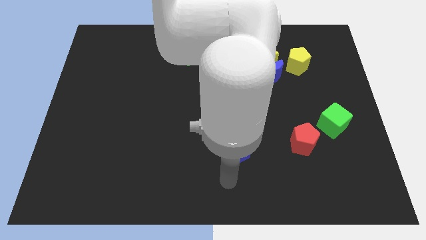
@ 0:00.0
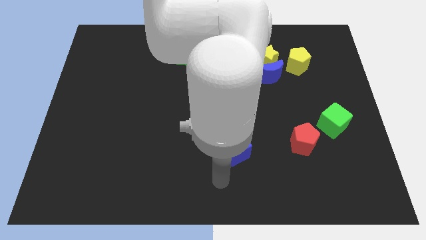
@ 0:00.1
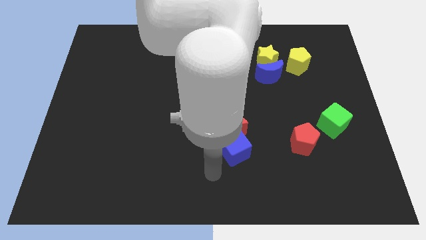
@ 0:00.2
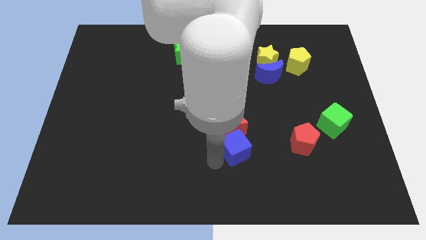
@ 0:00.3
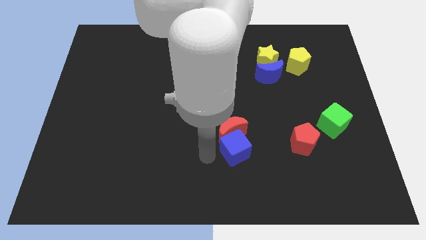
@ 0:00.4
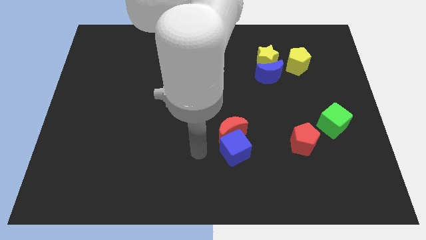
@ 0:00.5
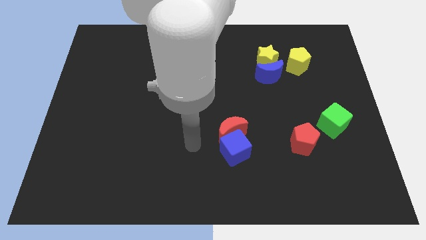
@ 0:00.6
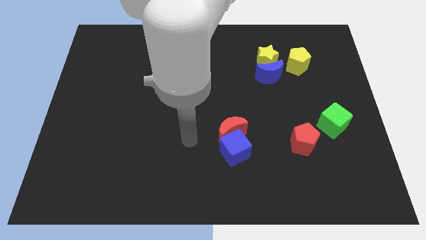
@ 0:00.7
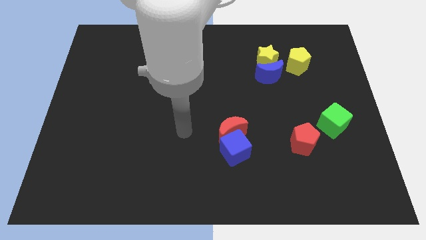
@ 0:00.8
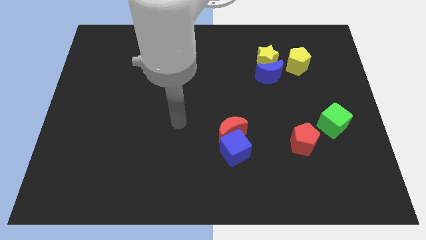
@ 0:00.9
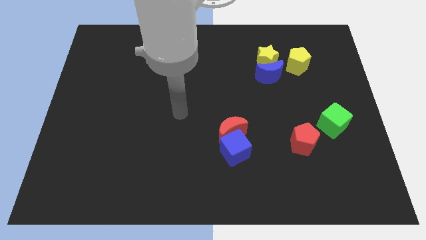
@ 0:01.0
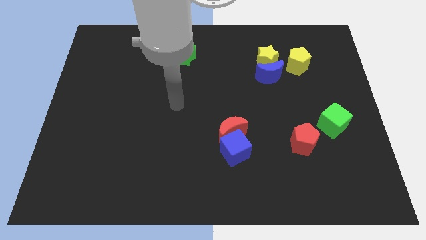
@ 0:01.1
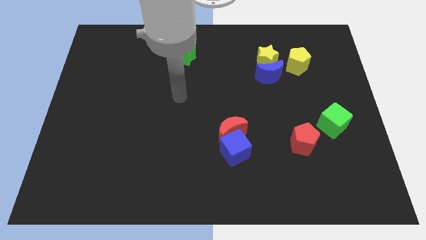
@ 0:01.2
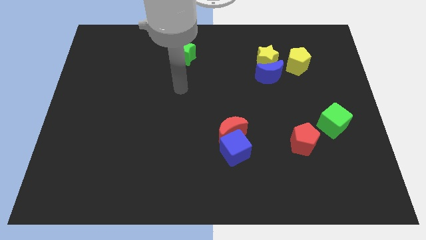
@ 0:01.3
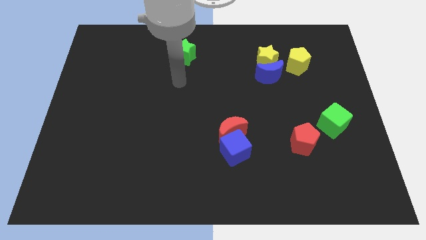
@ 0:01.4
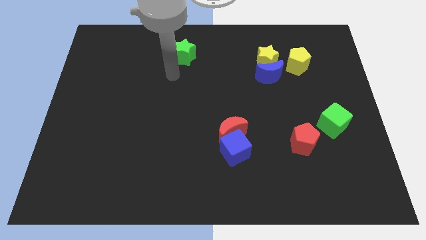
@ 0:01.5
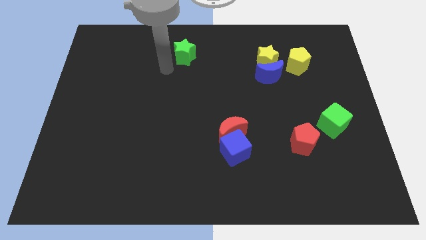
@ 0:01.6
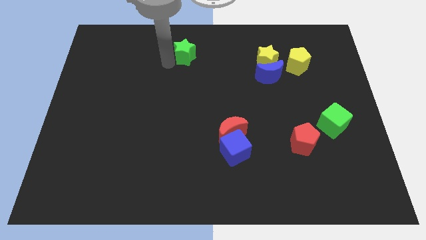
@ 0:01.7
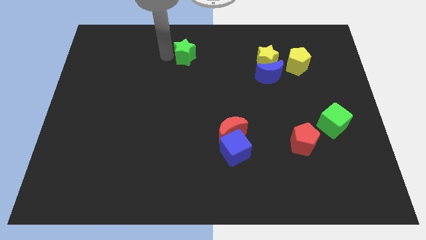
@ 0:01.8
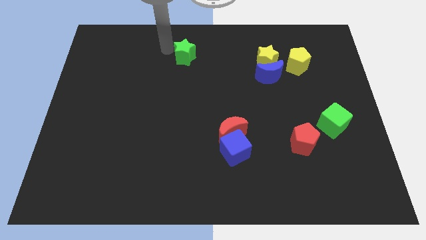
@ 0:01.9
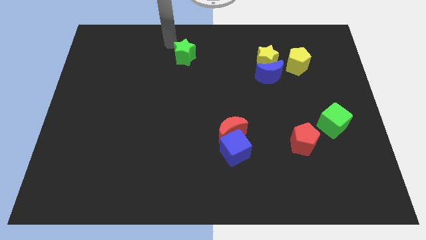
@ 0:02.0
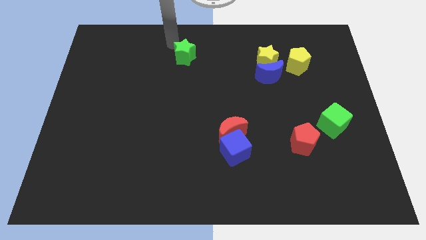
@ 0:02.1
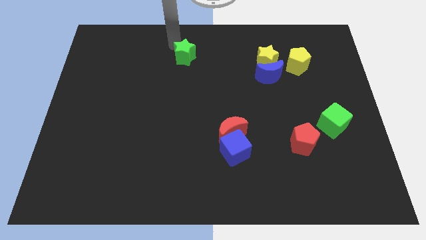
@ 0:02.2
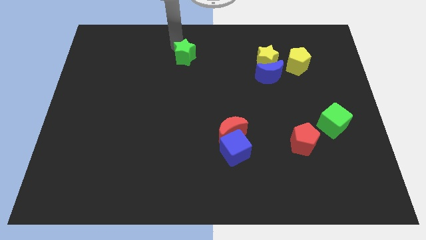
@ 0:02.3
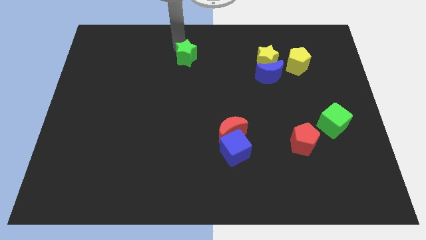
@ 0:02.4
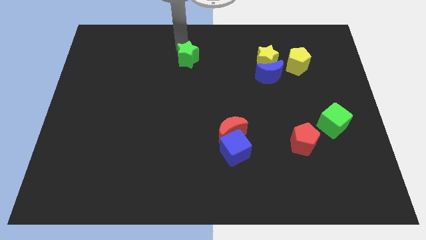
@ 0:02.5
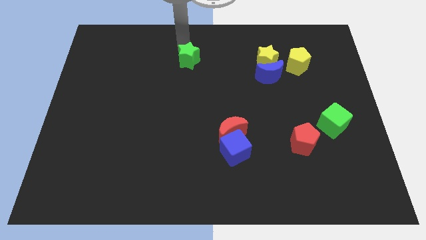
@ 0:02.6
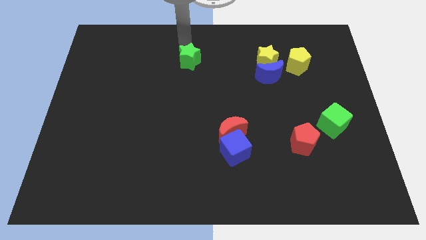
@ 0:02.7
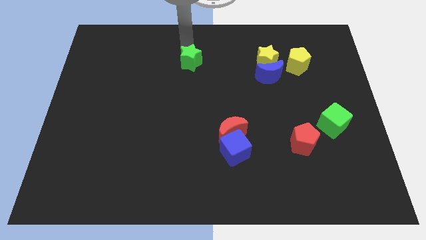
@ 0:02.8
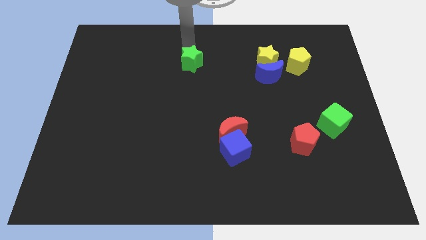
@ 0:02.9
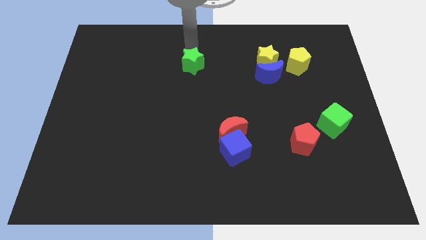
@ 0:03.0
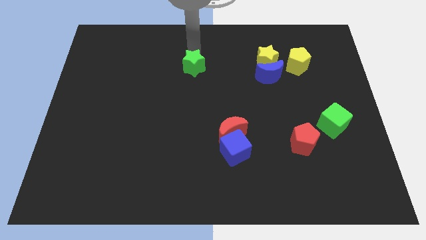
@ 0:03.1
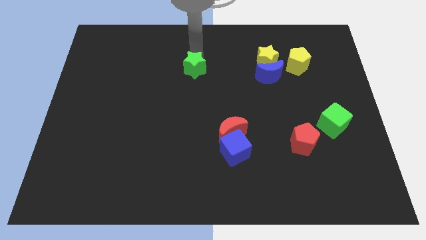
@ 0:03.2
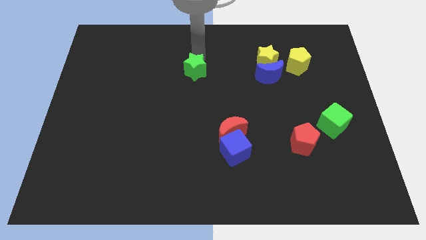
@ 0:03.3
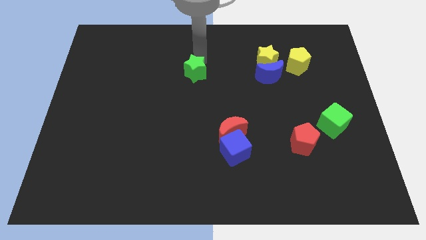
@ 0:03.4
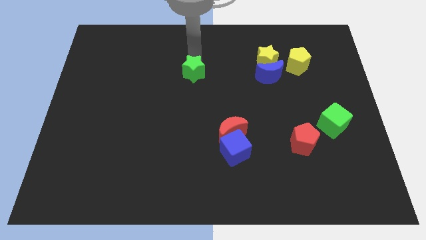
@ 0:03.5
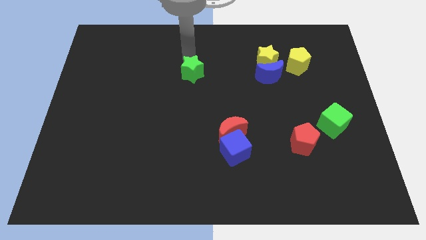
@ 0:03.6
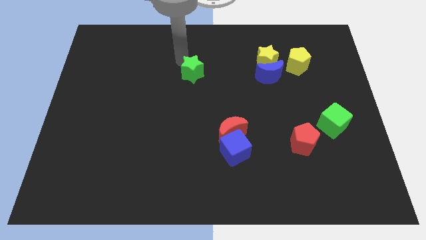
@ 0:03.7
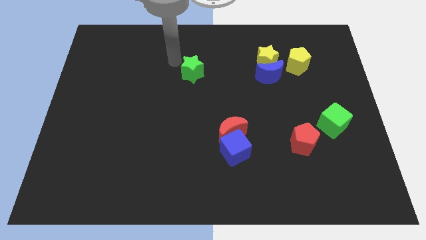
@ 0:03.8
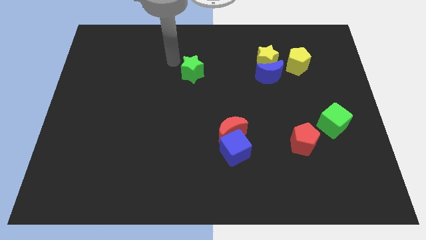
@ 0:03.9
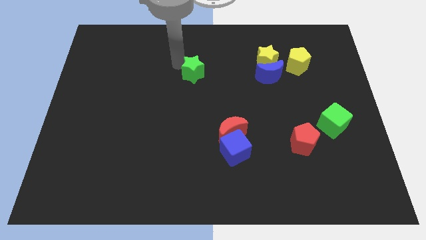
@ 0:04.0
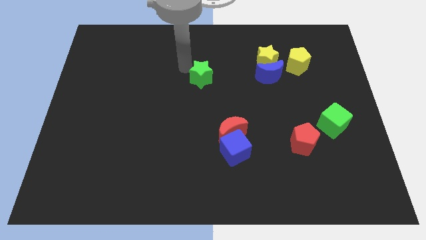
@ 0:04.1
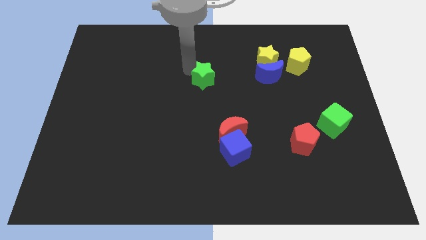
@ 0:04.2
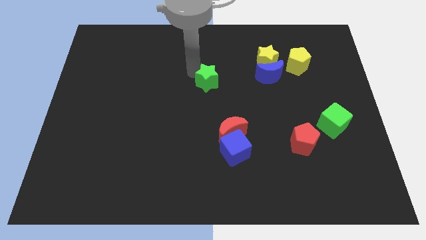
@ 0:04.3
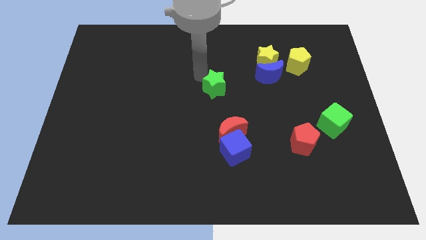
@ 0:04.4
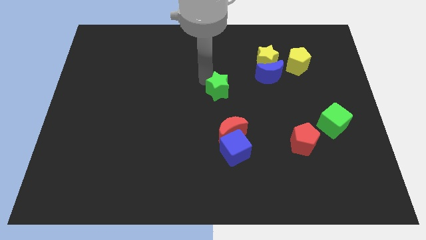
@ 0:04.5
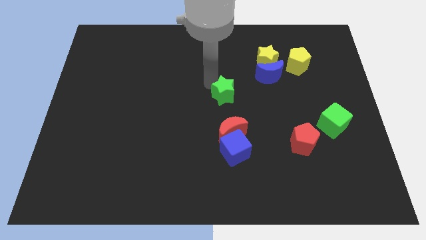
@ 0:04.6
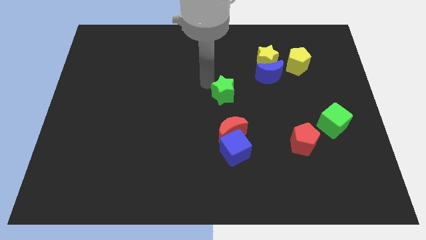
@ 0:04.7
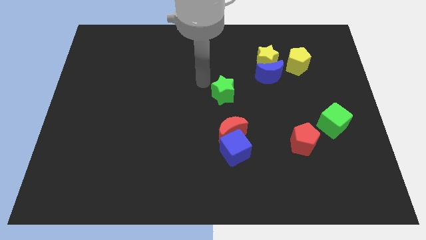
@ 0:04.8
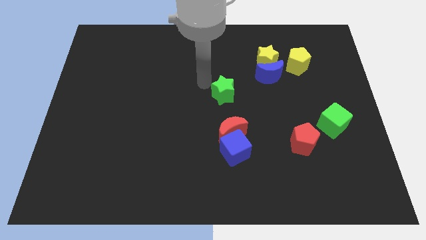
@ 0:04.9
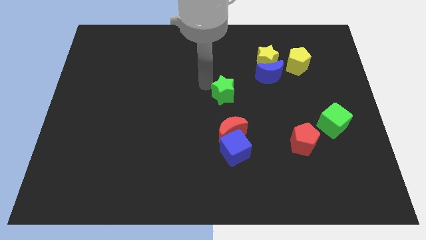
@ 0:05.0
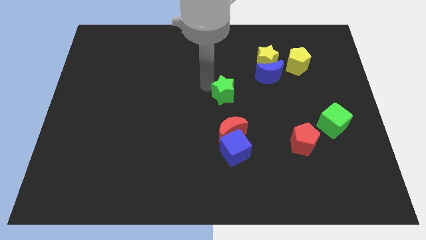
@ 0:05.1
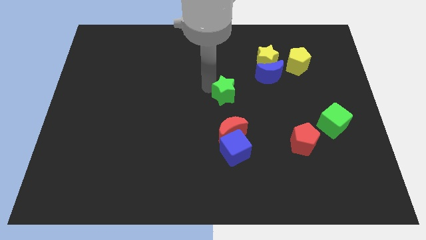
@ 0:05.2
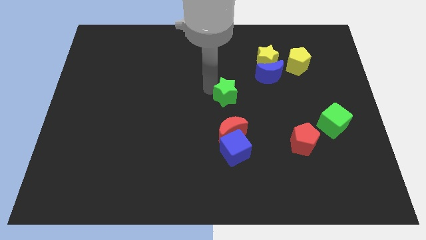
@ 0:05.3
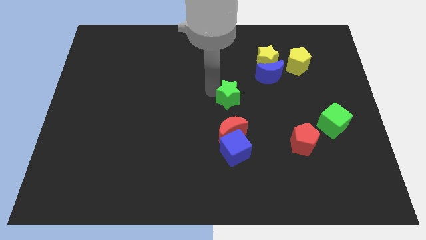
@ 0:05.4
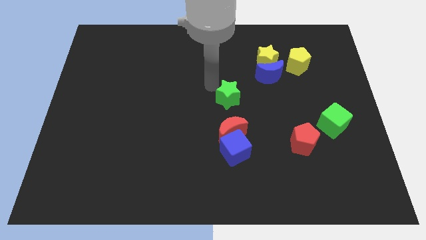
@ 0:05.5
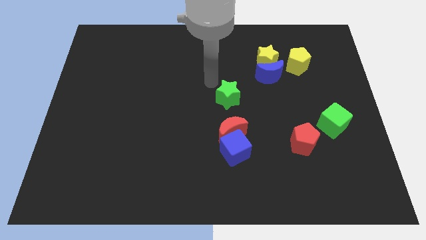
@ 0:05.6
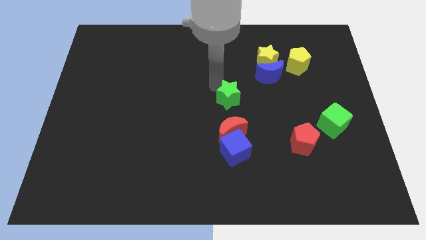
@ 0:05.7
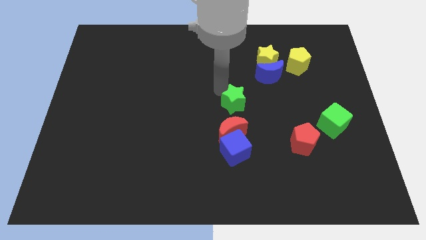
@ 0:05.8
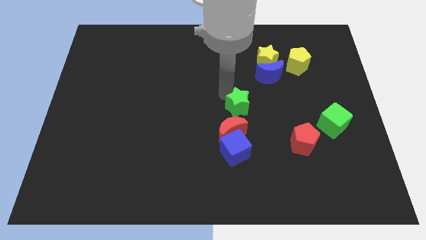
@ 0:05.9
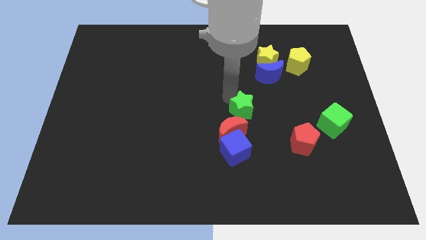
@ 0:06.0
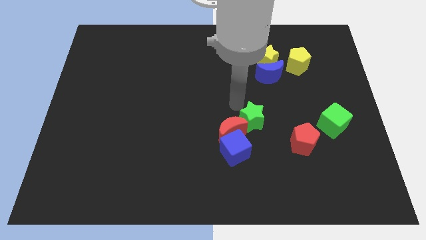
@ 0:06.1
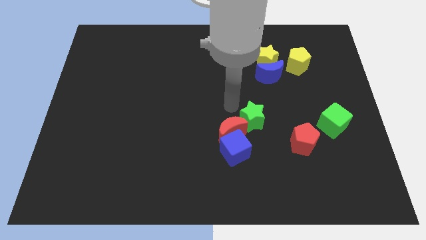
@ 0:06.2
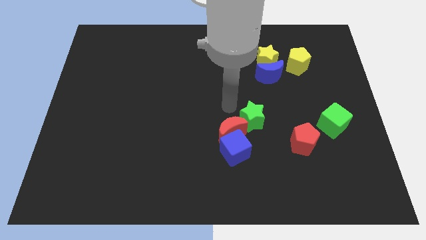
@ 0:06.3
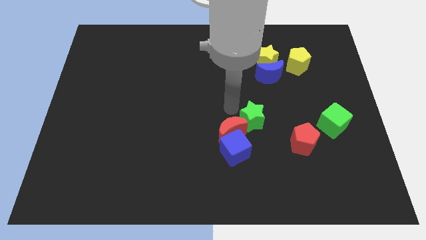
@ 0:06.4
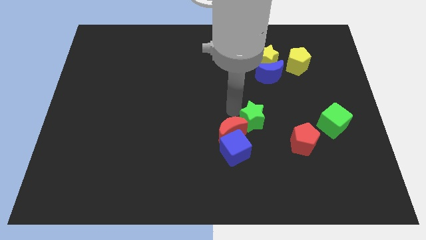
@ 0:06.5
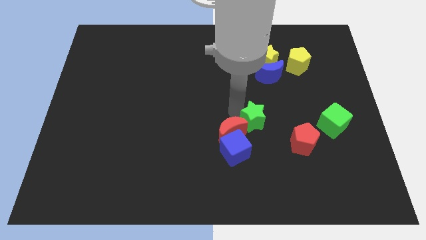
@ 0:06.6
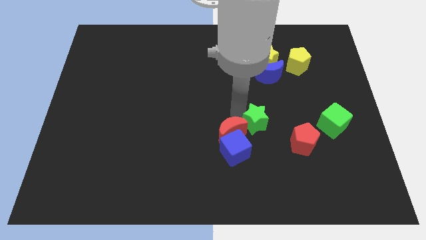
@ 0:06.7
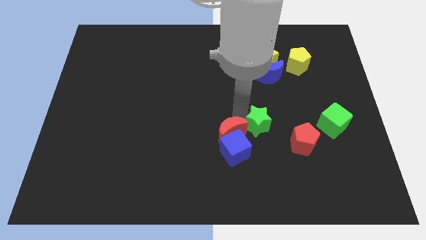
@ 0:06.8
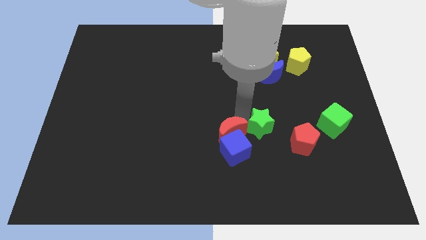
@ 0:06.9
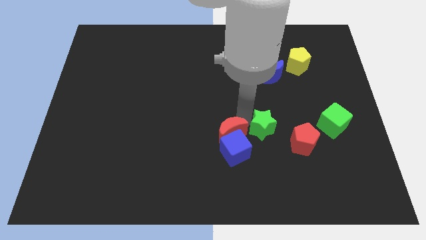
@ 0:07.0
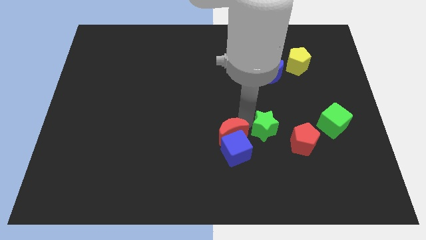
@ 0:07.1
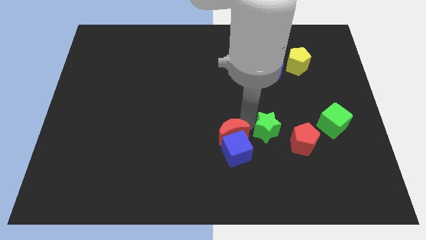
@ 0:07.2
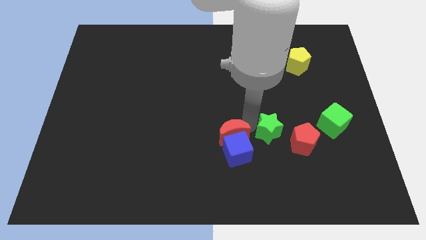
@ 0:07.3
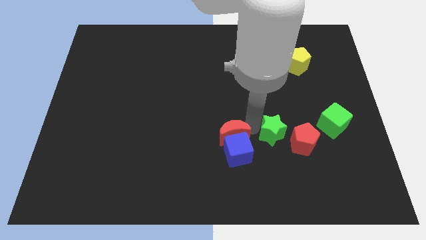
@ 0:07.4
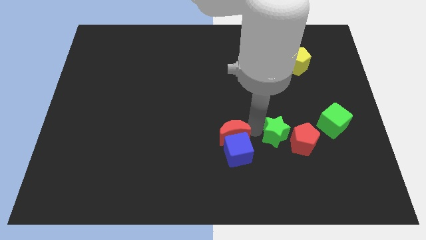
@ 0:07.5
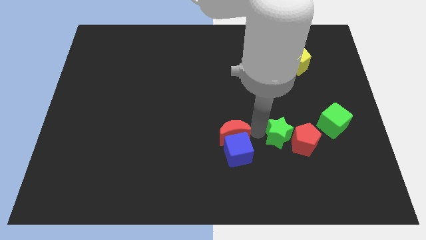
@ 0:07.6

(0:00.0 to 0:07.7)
put the green star towards the red pentagon

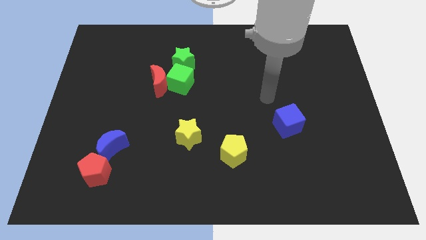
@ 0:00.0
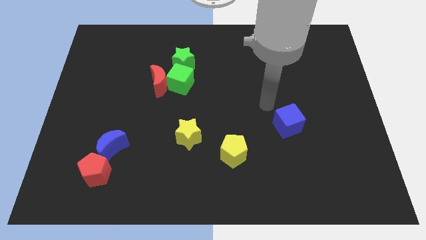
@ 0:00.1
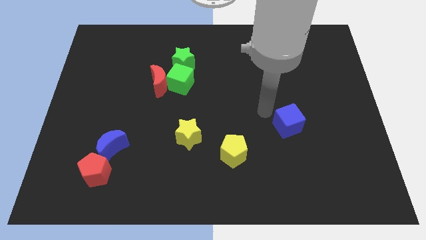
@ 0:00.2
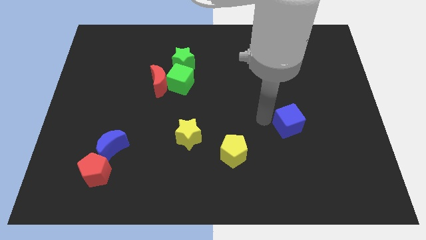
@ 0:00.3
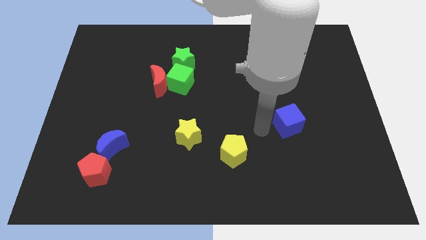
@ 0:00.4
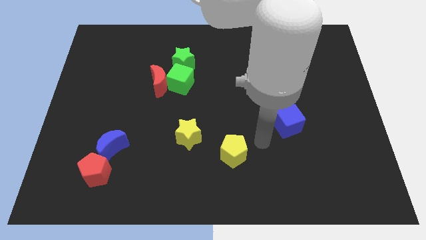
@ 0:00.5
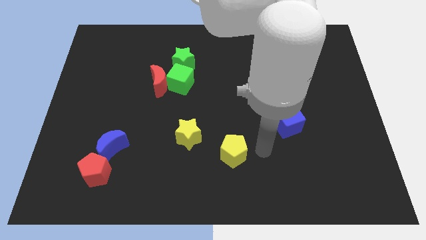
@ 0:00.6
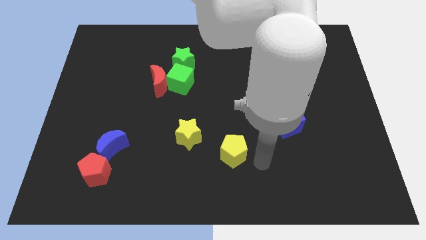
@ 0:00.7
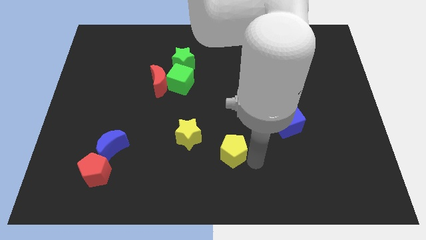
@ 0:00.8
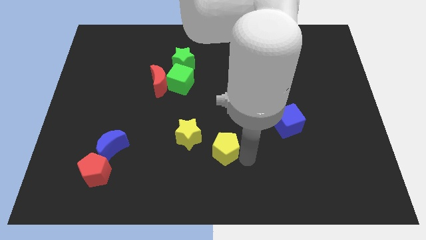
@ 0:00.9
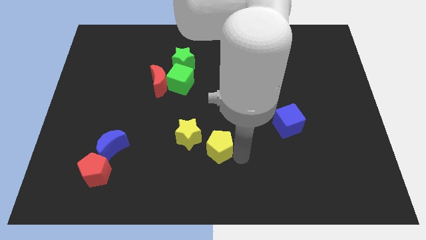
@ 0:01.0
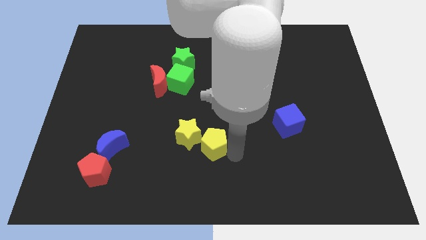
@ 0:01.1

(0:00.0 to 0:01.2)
move the yellow pentagon next to the yellow star
